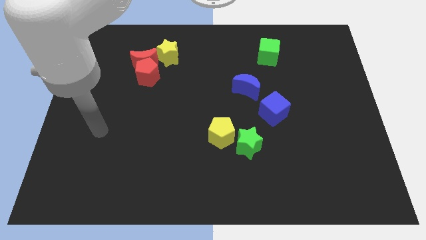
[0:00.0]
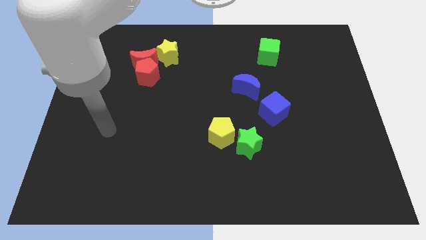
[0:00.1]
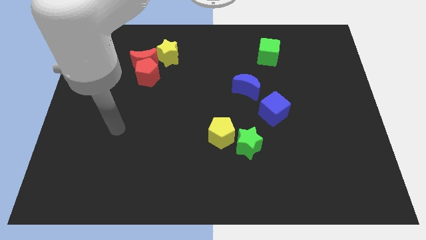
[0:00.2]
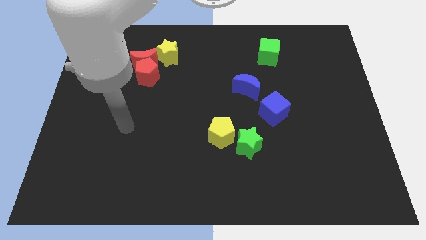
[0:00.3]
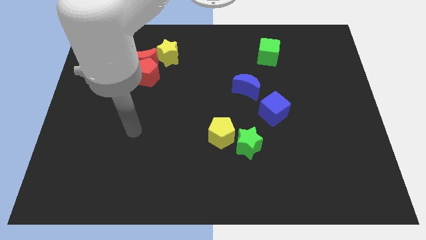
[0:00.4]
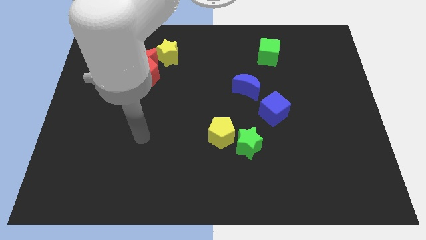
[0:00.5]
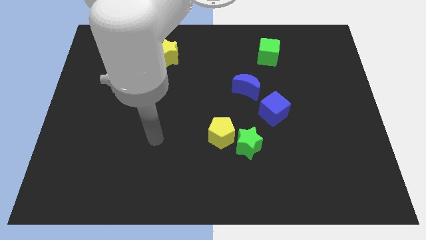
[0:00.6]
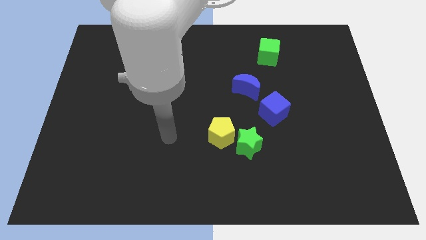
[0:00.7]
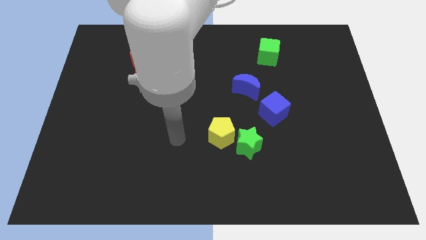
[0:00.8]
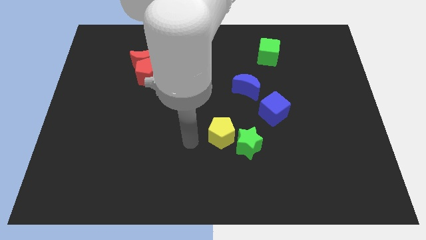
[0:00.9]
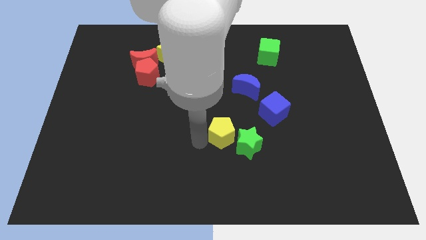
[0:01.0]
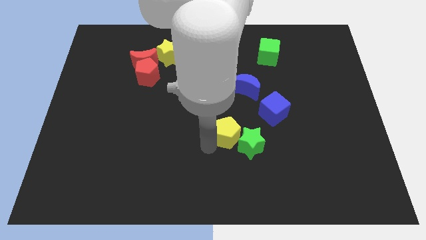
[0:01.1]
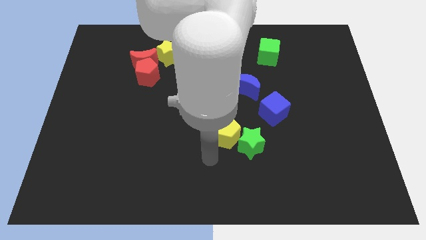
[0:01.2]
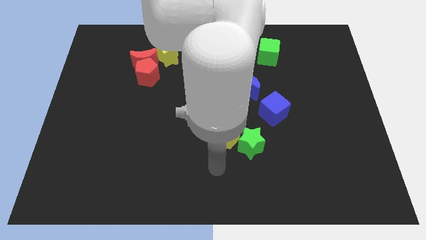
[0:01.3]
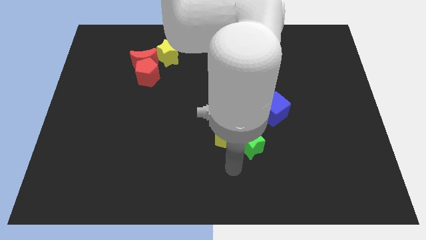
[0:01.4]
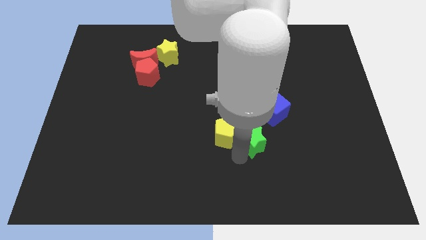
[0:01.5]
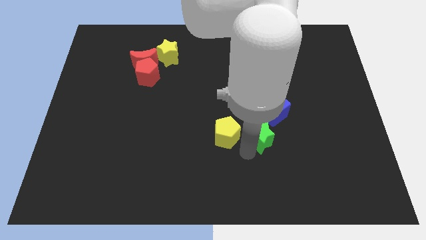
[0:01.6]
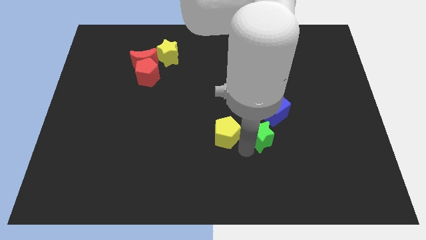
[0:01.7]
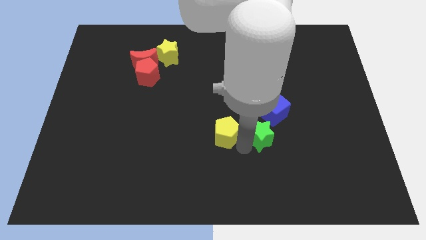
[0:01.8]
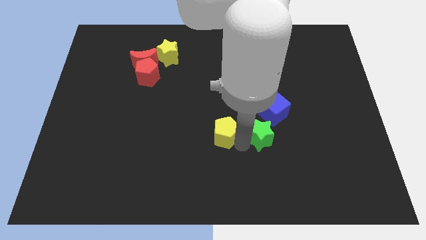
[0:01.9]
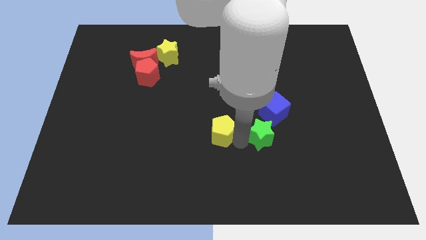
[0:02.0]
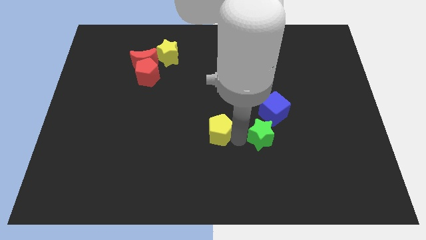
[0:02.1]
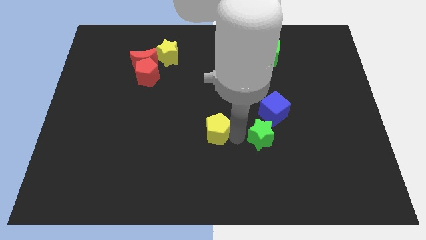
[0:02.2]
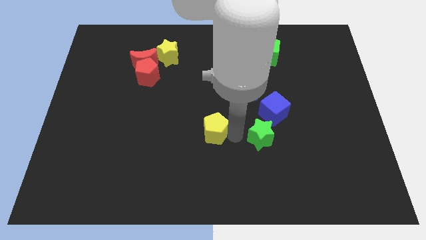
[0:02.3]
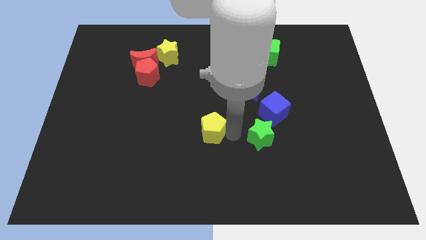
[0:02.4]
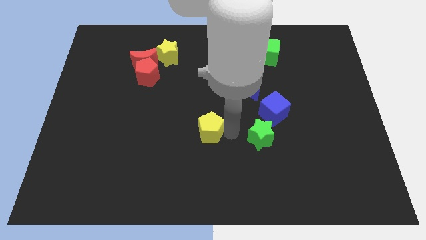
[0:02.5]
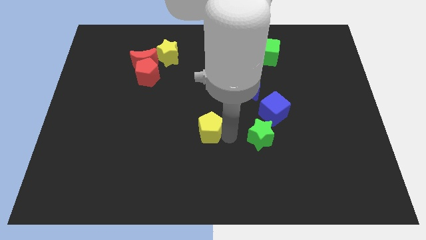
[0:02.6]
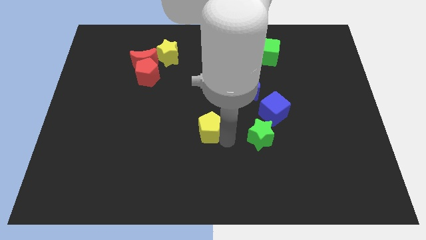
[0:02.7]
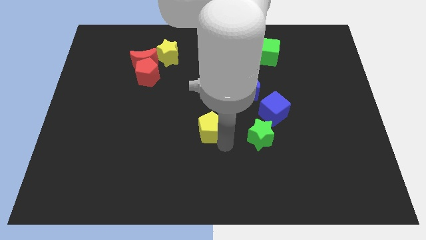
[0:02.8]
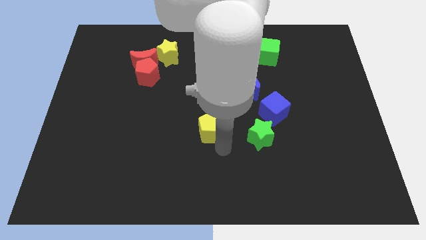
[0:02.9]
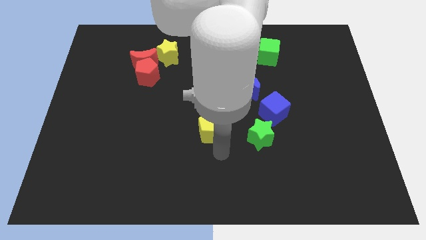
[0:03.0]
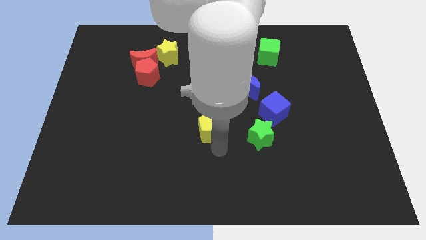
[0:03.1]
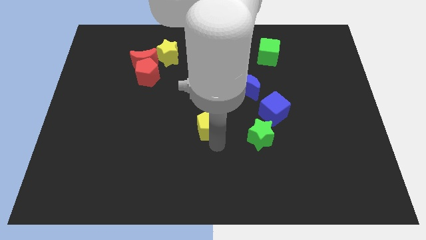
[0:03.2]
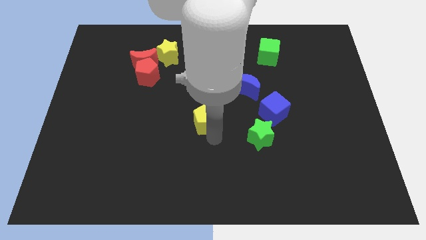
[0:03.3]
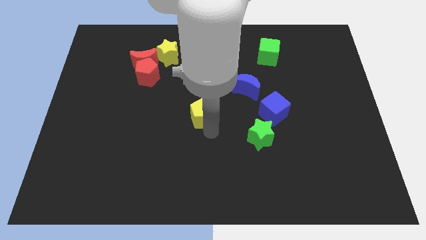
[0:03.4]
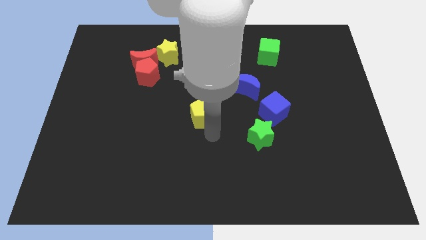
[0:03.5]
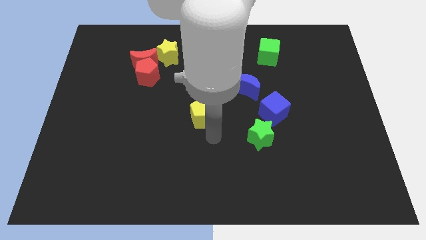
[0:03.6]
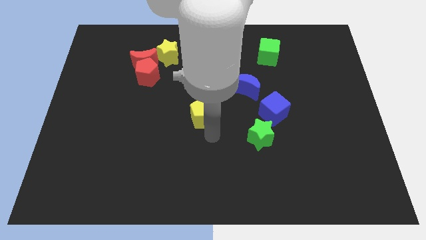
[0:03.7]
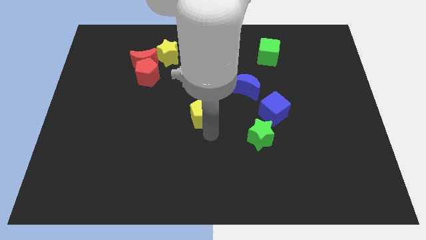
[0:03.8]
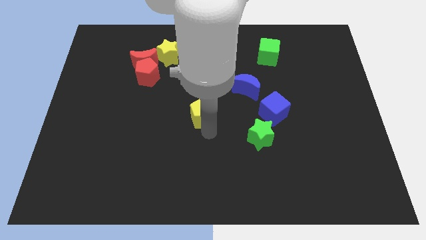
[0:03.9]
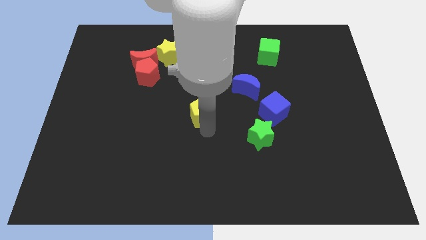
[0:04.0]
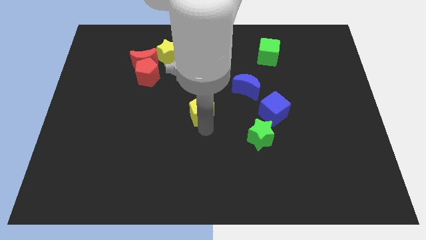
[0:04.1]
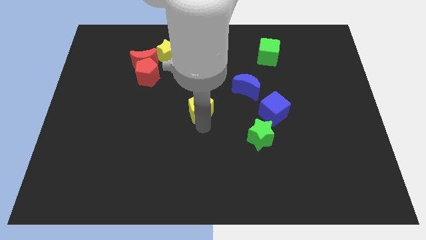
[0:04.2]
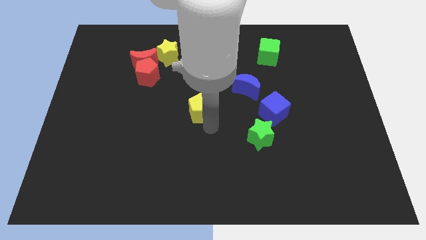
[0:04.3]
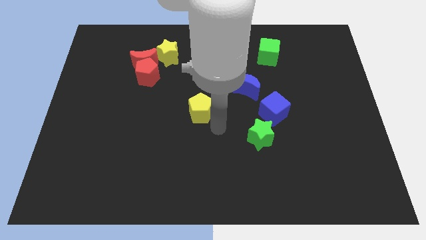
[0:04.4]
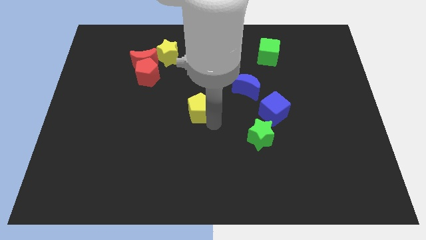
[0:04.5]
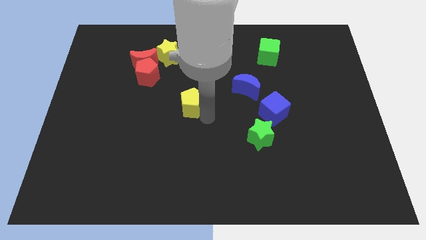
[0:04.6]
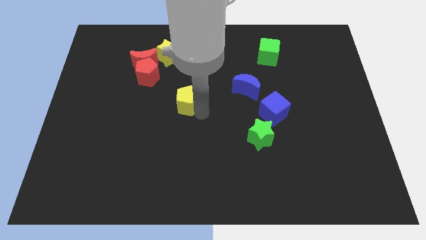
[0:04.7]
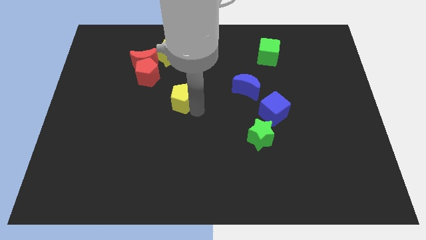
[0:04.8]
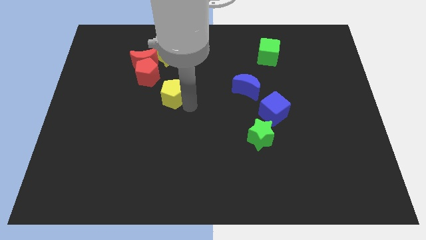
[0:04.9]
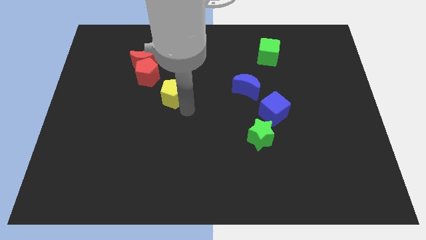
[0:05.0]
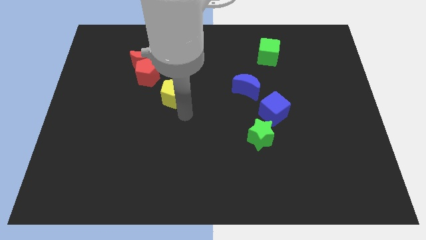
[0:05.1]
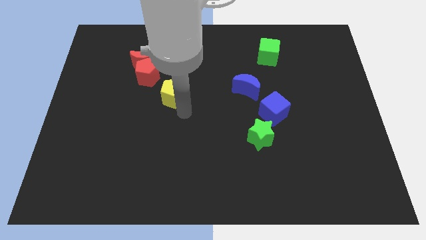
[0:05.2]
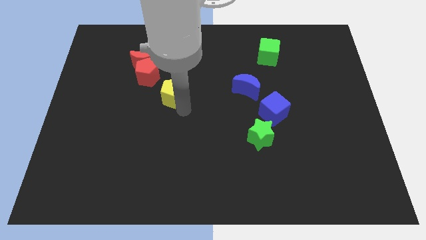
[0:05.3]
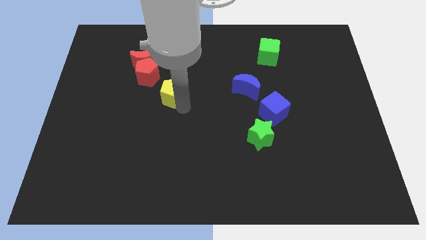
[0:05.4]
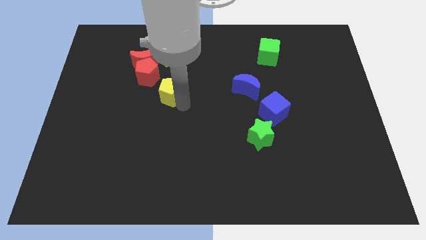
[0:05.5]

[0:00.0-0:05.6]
put the yellow pentagon to the bottom right side of the red moon

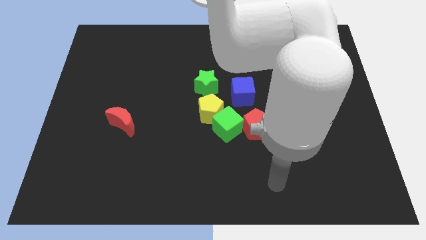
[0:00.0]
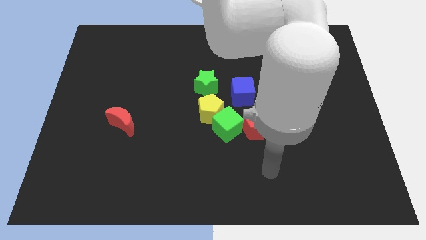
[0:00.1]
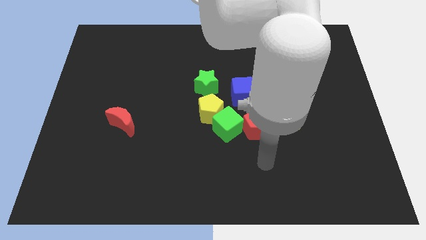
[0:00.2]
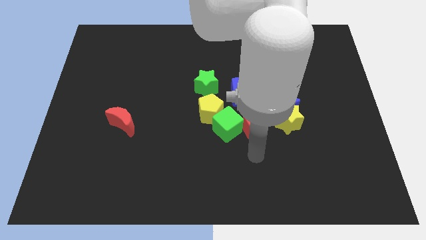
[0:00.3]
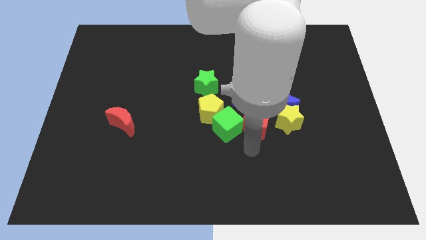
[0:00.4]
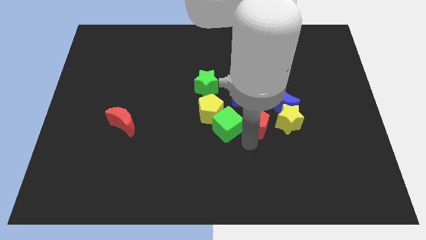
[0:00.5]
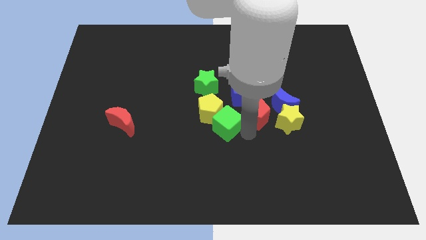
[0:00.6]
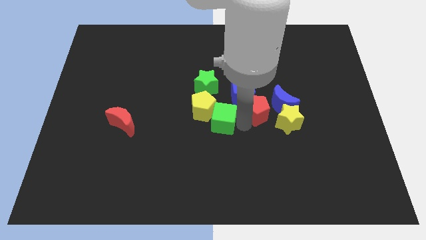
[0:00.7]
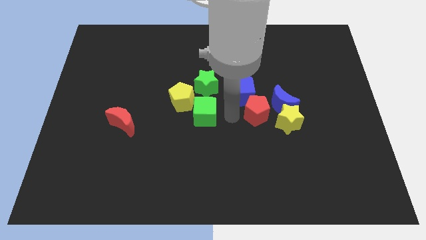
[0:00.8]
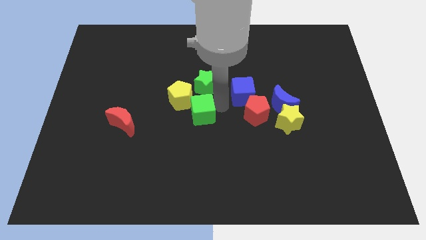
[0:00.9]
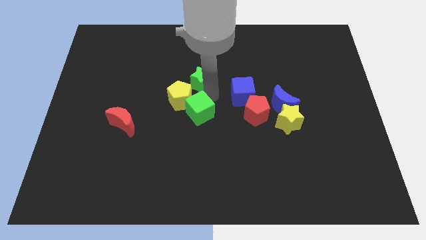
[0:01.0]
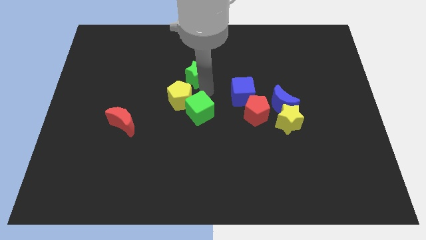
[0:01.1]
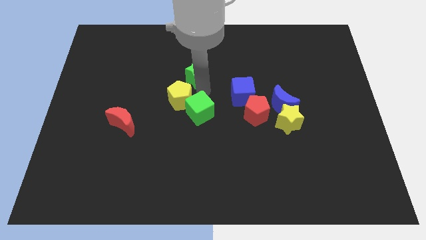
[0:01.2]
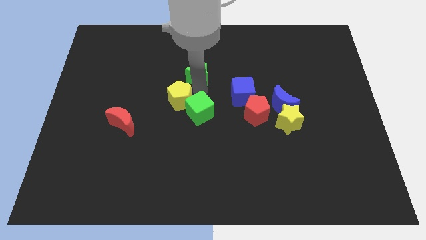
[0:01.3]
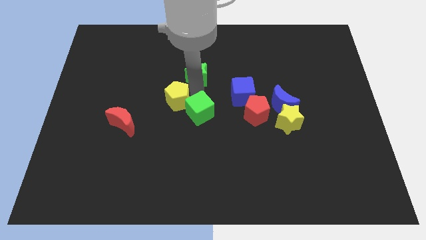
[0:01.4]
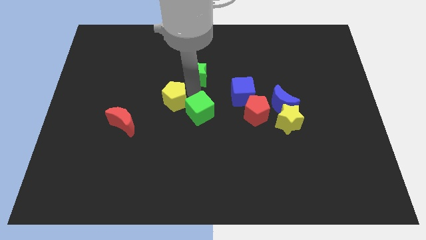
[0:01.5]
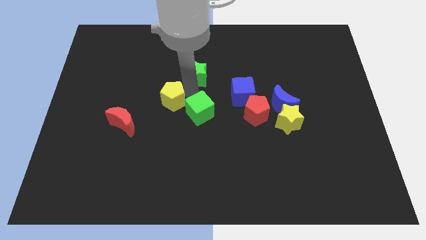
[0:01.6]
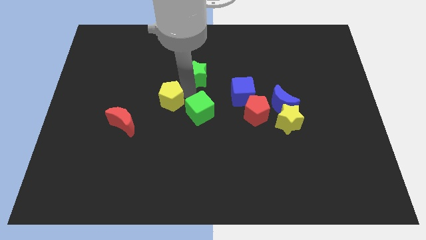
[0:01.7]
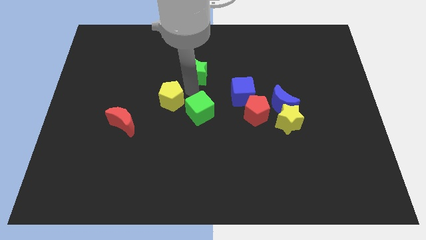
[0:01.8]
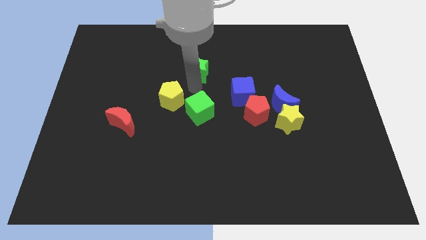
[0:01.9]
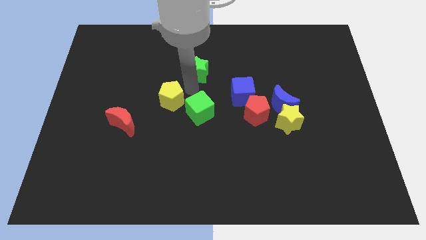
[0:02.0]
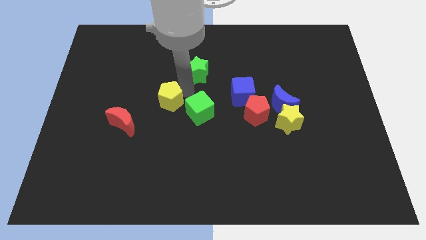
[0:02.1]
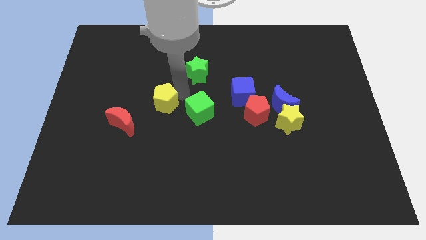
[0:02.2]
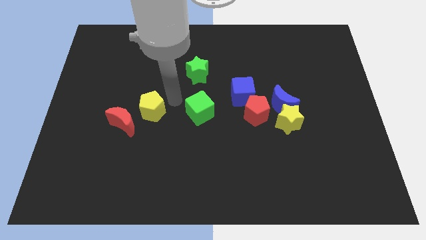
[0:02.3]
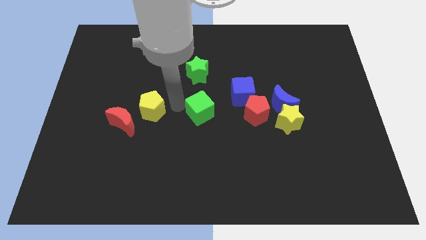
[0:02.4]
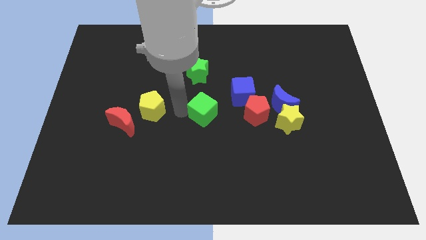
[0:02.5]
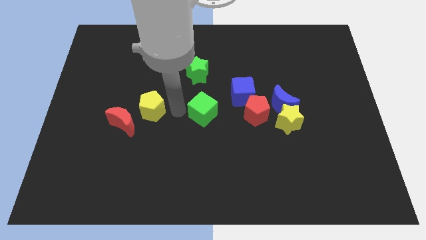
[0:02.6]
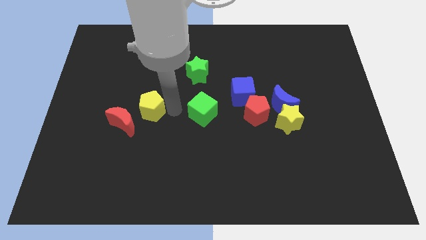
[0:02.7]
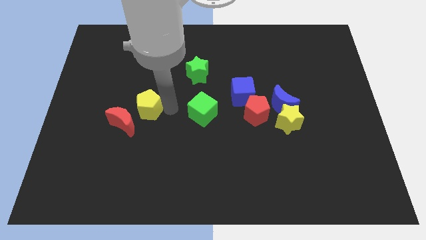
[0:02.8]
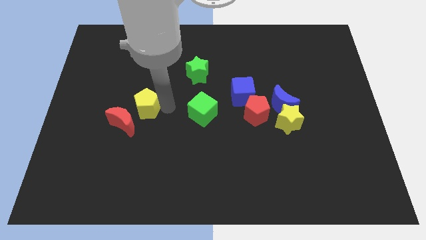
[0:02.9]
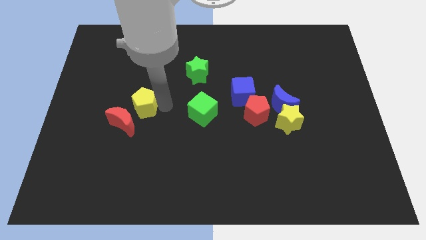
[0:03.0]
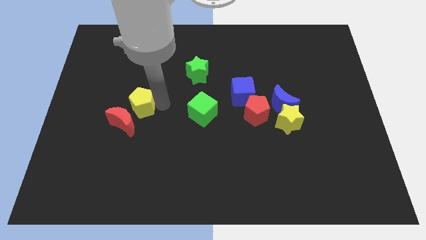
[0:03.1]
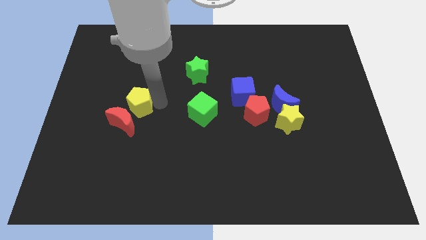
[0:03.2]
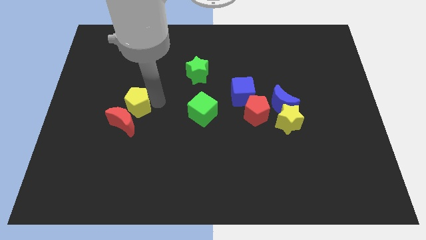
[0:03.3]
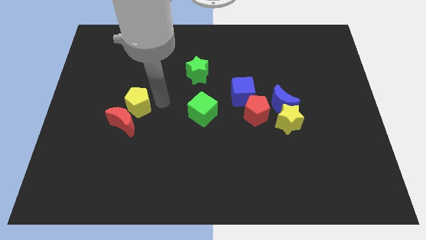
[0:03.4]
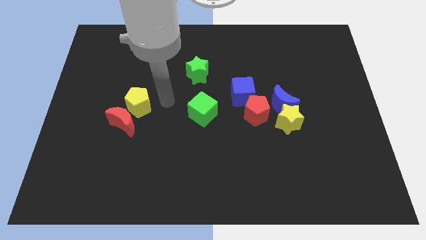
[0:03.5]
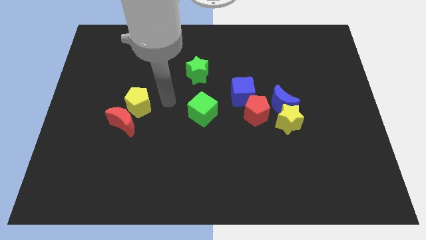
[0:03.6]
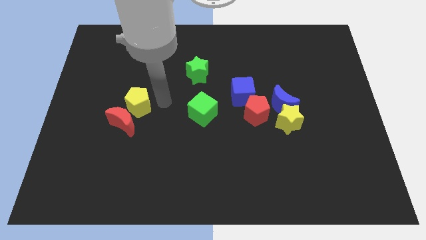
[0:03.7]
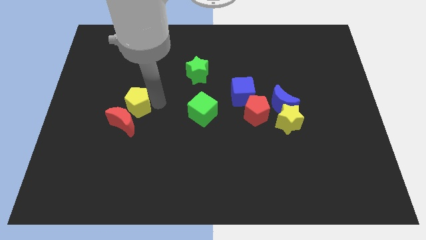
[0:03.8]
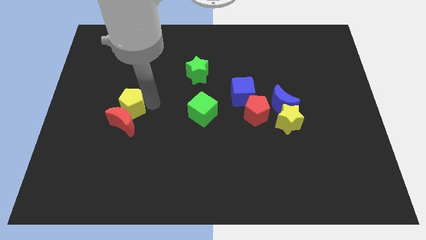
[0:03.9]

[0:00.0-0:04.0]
slide the yellow pentagon to the top left of the red moon
